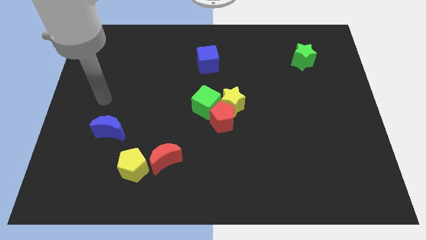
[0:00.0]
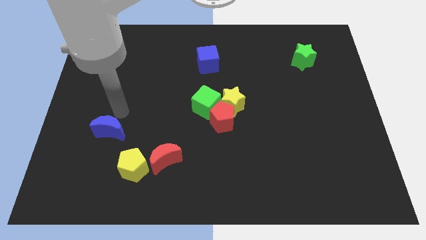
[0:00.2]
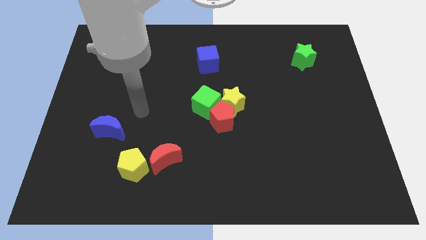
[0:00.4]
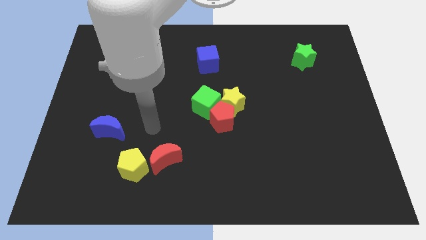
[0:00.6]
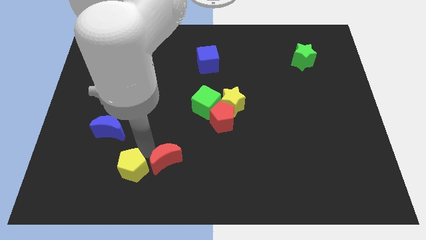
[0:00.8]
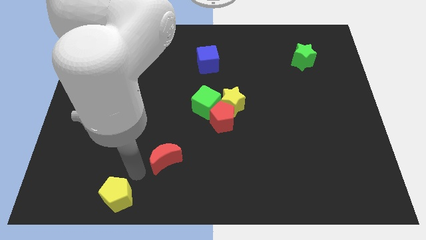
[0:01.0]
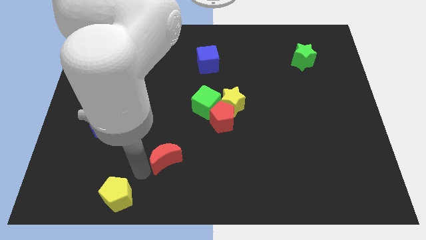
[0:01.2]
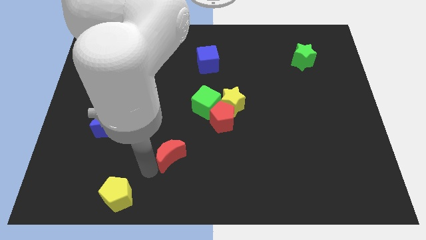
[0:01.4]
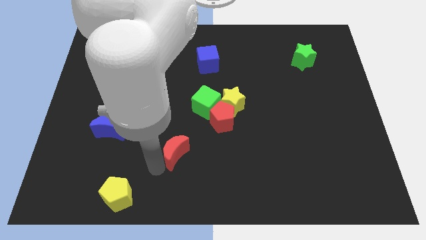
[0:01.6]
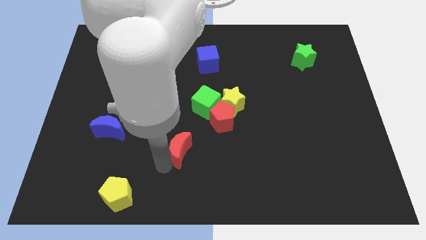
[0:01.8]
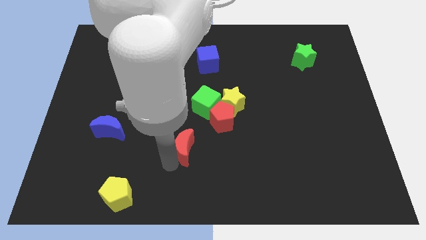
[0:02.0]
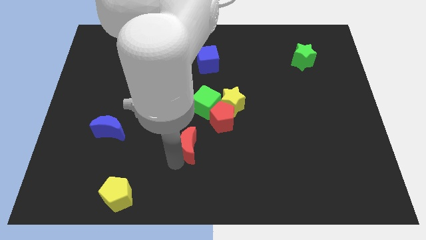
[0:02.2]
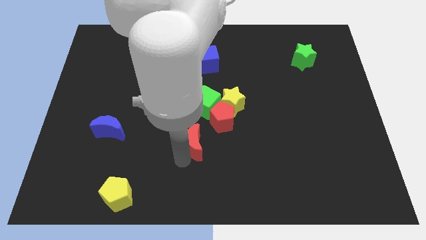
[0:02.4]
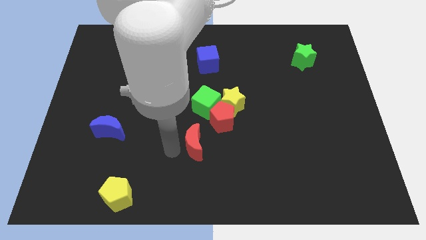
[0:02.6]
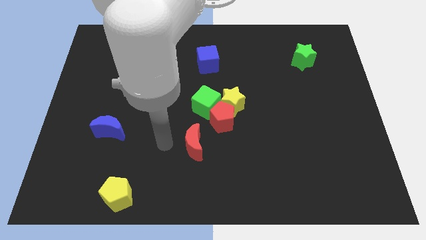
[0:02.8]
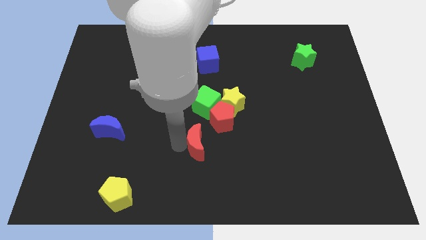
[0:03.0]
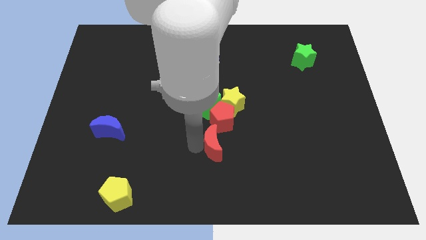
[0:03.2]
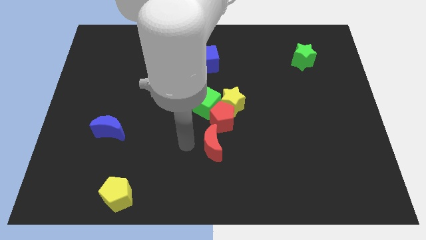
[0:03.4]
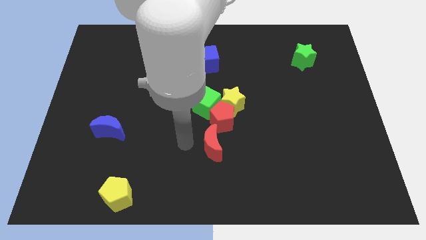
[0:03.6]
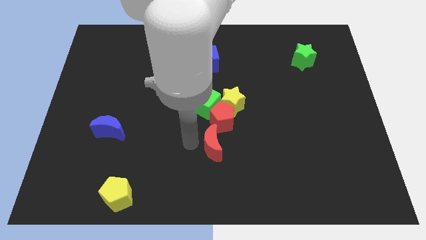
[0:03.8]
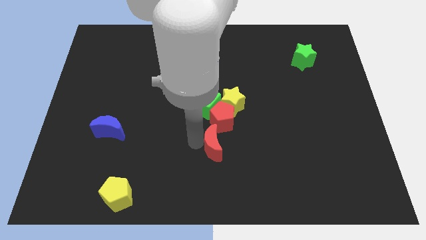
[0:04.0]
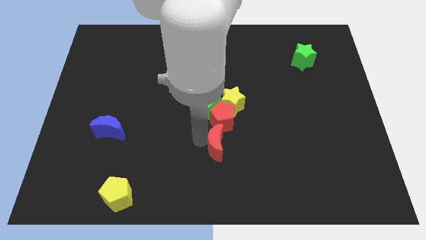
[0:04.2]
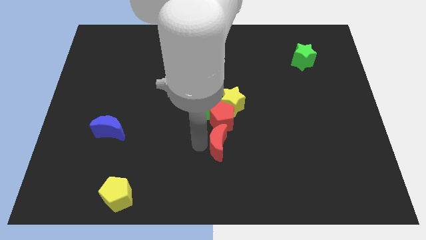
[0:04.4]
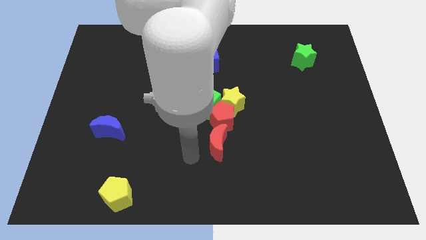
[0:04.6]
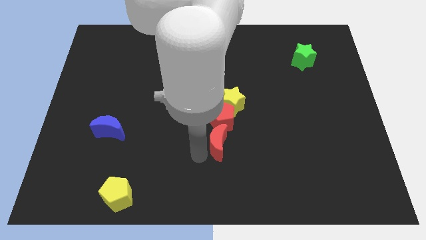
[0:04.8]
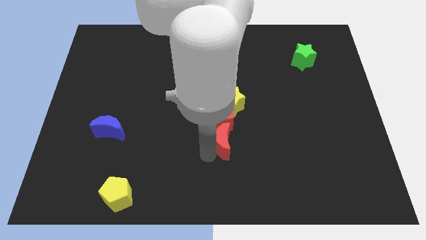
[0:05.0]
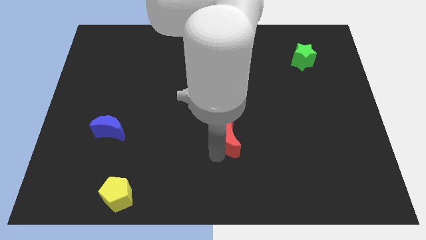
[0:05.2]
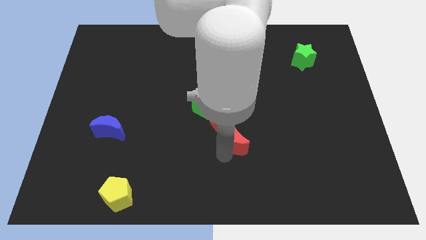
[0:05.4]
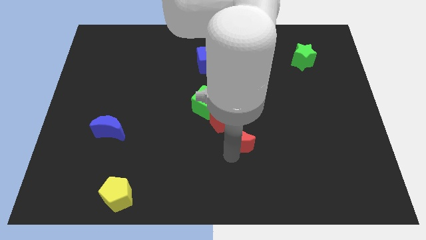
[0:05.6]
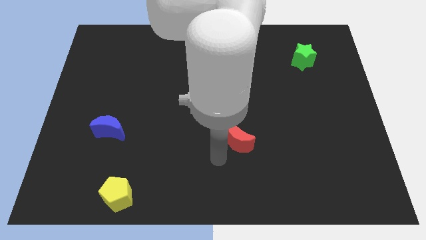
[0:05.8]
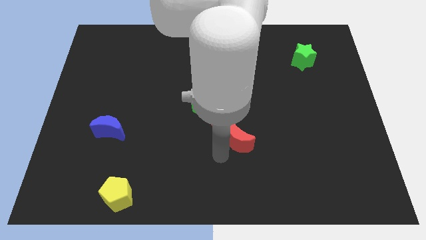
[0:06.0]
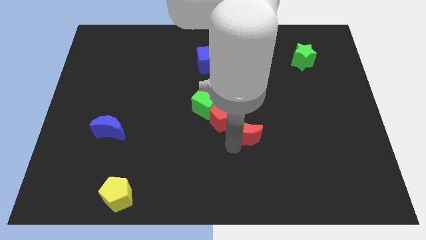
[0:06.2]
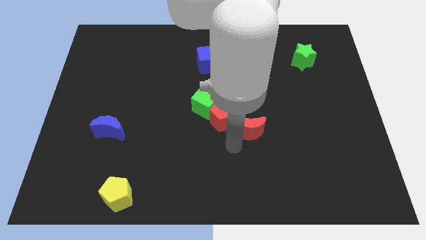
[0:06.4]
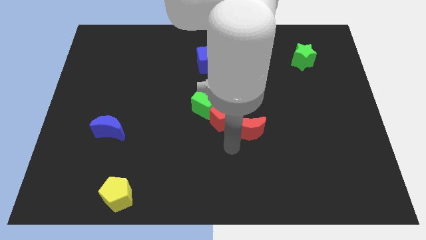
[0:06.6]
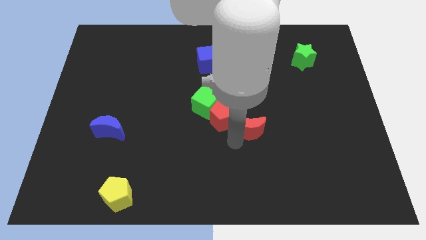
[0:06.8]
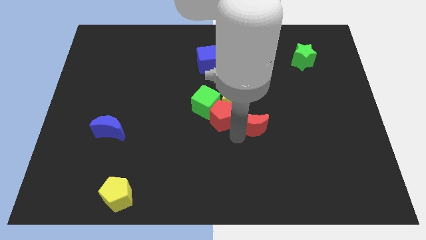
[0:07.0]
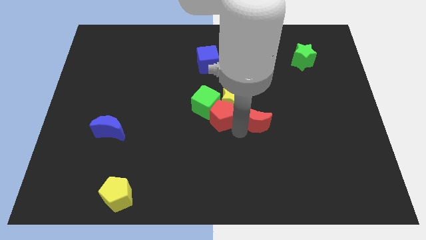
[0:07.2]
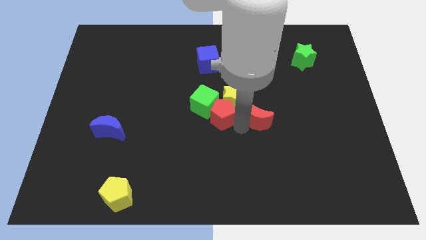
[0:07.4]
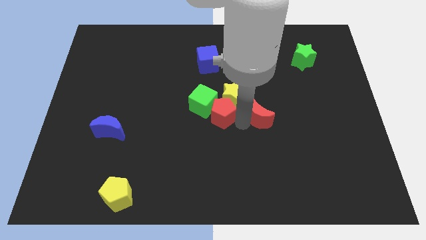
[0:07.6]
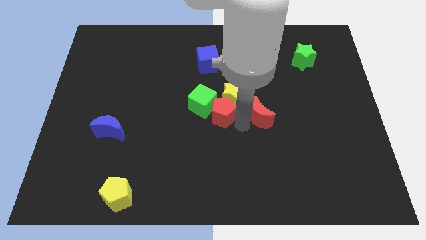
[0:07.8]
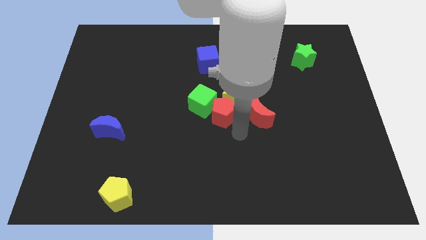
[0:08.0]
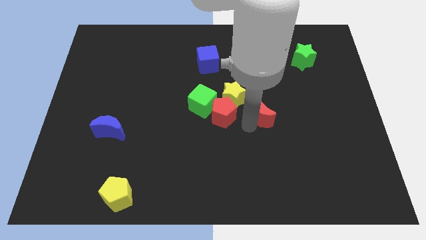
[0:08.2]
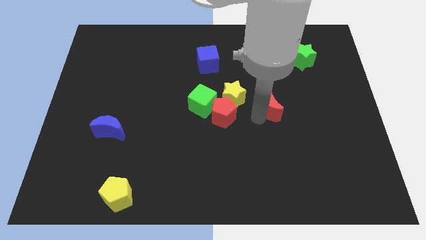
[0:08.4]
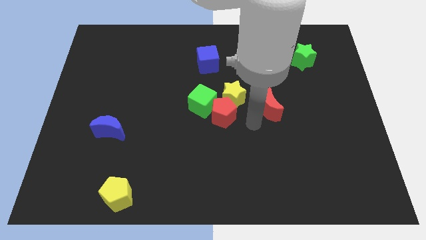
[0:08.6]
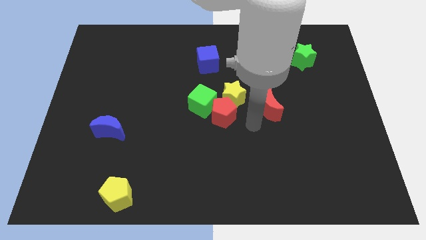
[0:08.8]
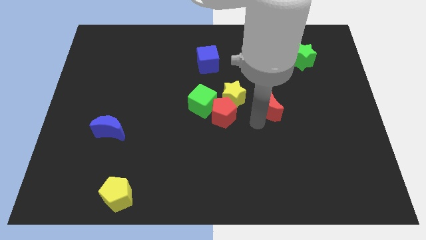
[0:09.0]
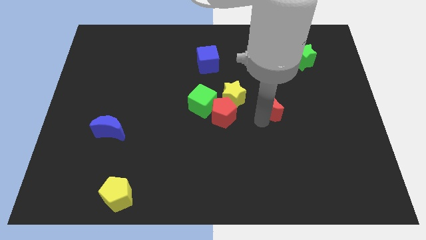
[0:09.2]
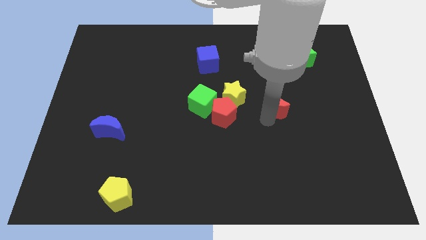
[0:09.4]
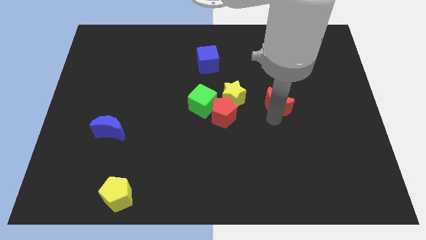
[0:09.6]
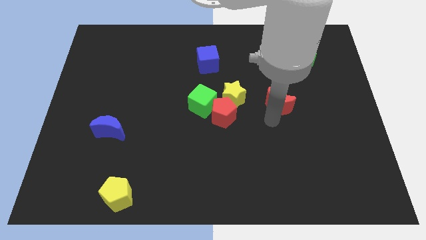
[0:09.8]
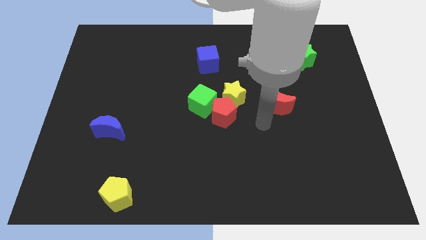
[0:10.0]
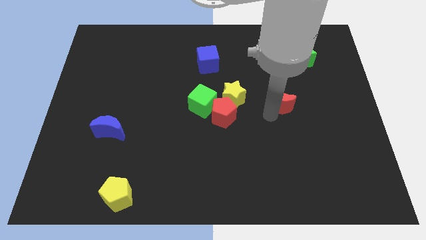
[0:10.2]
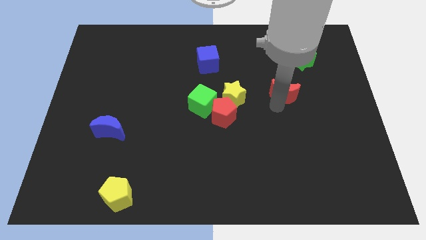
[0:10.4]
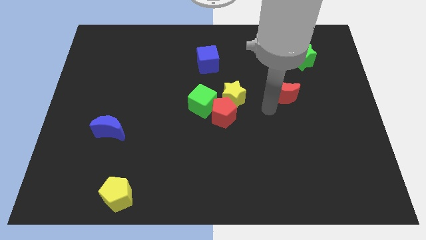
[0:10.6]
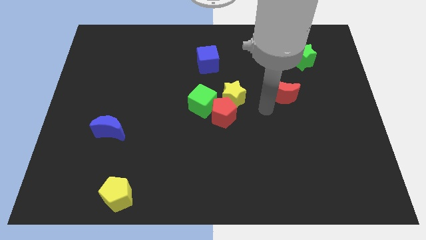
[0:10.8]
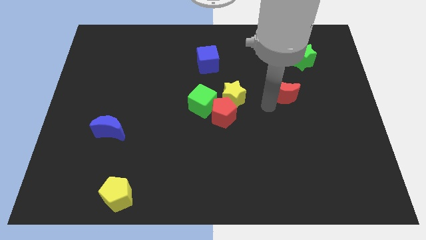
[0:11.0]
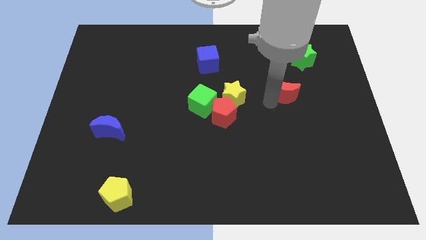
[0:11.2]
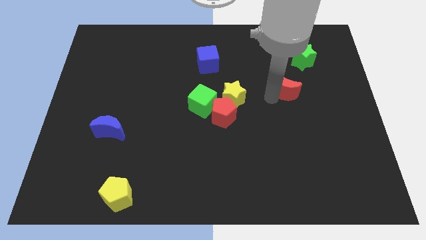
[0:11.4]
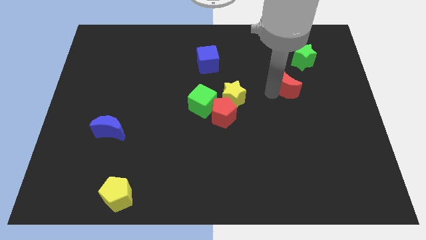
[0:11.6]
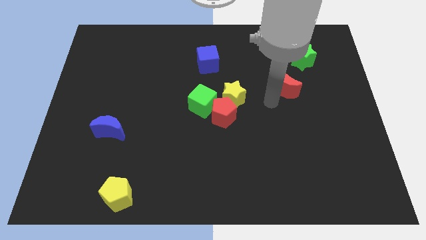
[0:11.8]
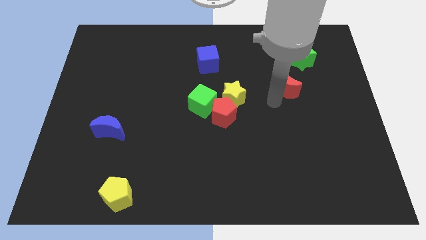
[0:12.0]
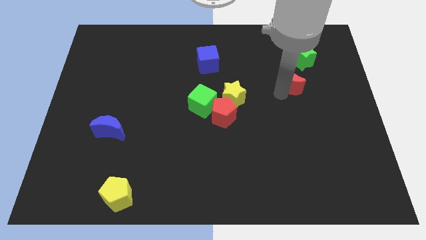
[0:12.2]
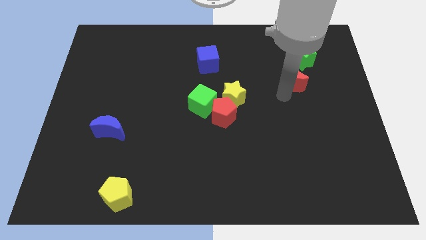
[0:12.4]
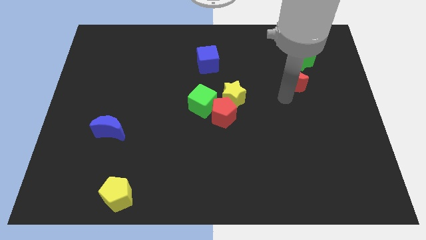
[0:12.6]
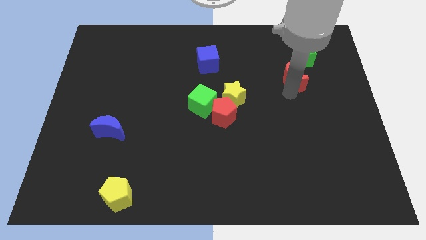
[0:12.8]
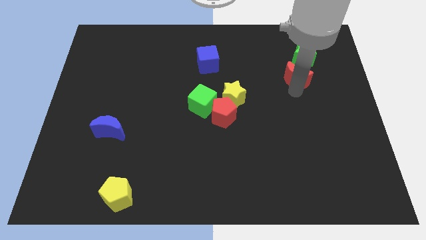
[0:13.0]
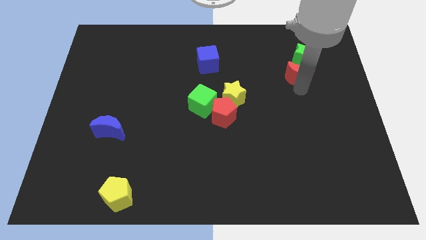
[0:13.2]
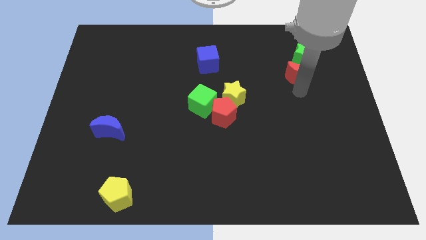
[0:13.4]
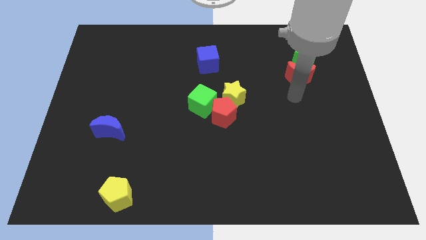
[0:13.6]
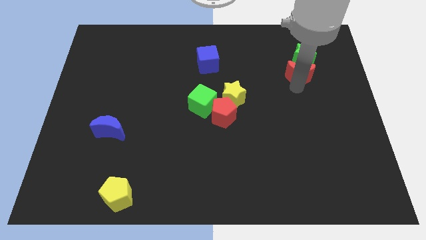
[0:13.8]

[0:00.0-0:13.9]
move the red moon to the green star
